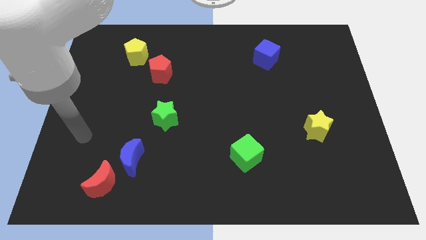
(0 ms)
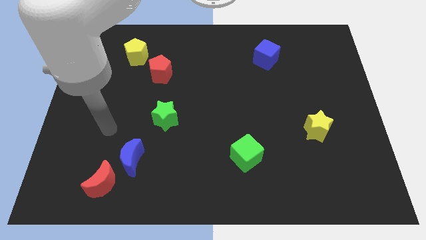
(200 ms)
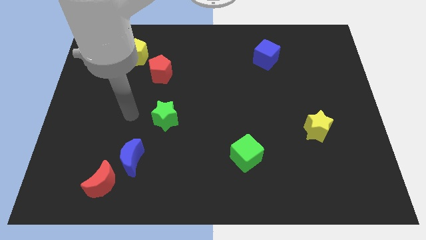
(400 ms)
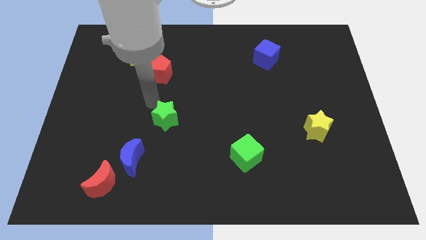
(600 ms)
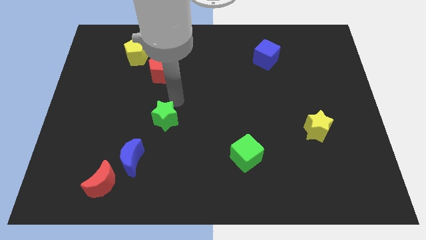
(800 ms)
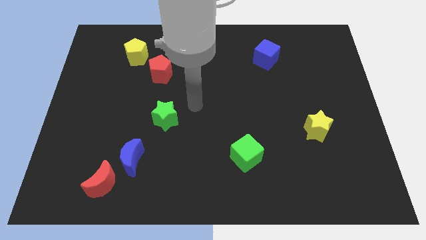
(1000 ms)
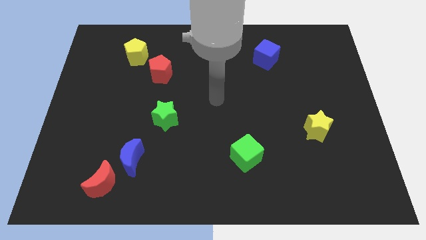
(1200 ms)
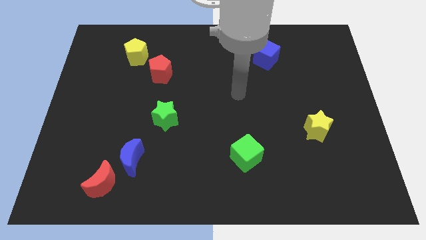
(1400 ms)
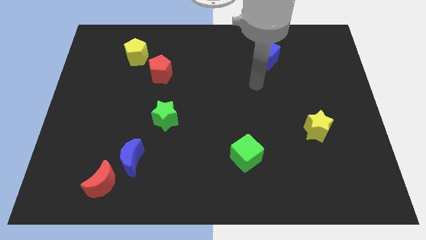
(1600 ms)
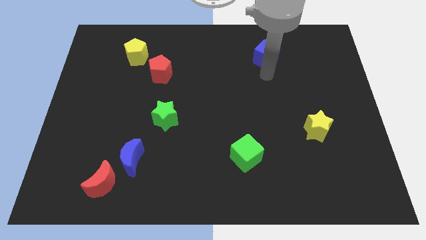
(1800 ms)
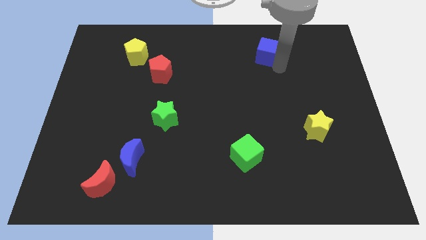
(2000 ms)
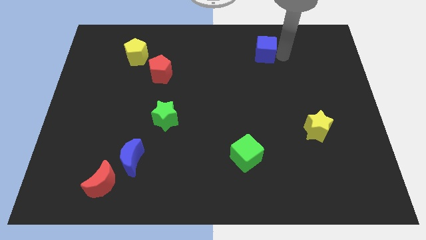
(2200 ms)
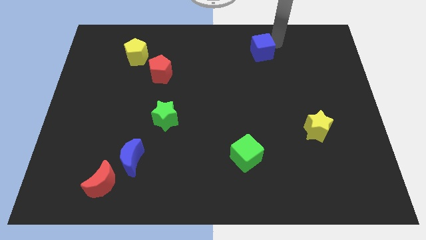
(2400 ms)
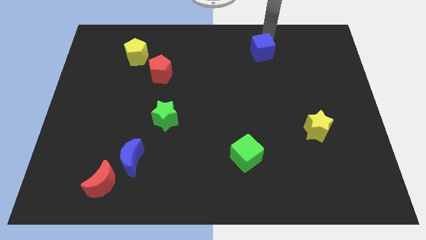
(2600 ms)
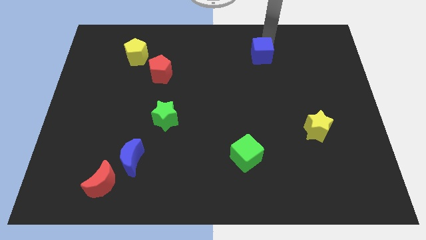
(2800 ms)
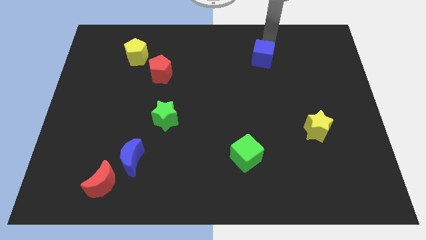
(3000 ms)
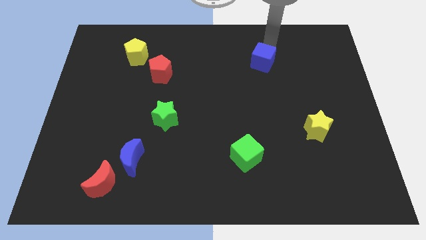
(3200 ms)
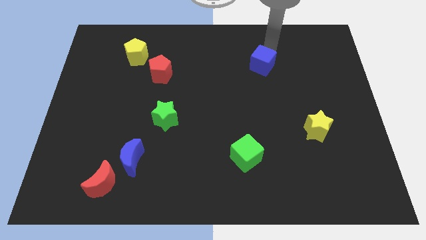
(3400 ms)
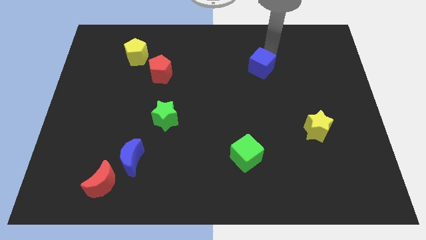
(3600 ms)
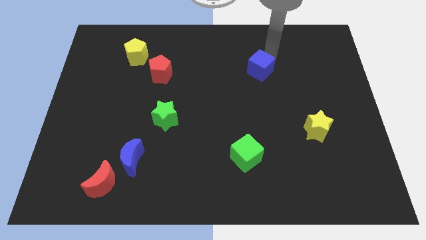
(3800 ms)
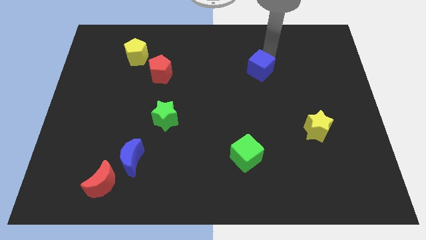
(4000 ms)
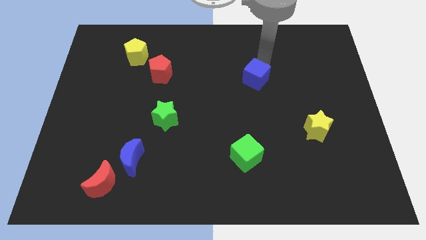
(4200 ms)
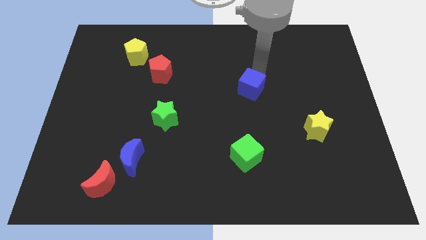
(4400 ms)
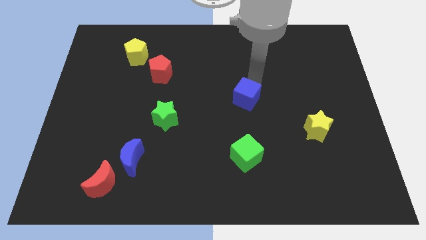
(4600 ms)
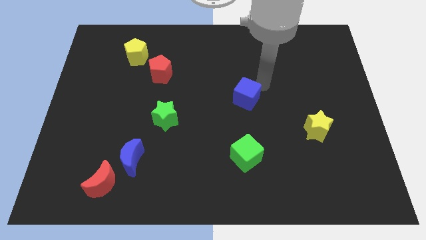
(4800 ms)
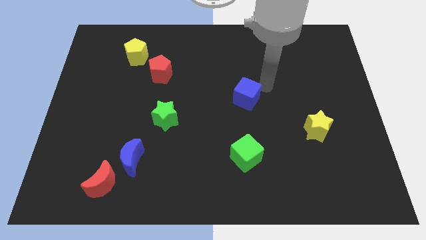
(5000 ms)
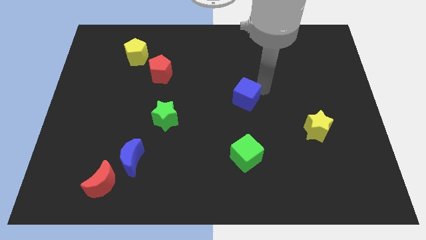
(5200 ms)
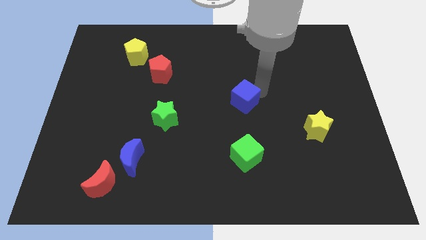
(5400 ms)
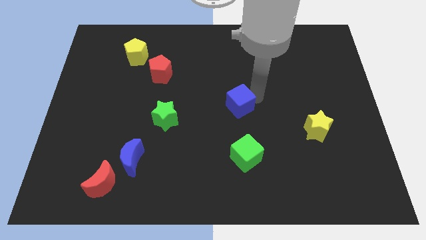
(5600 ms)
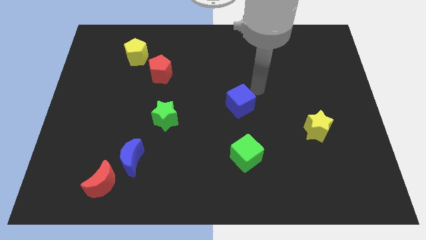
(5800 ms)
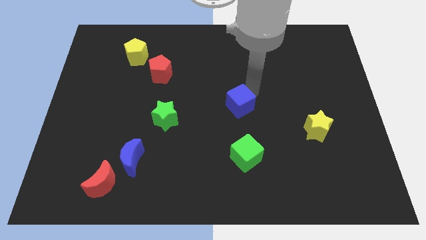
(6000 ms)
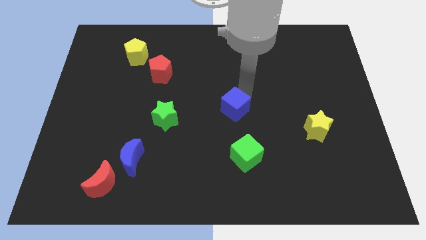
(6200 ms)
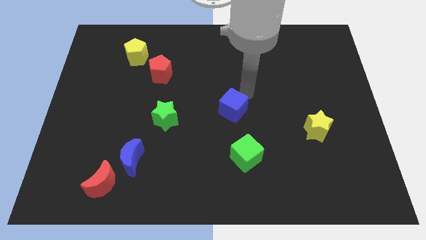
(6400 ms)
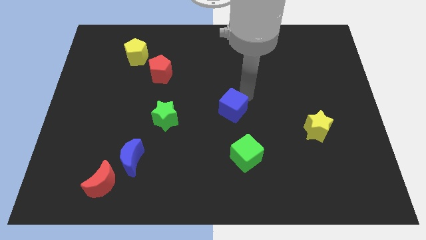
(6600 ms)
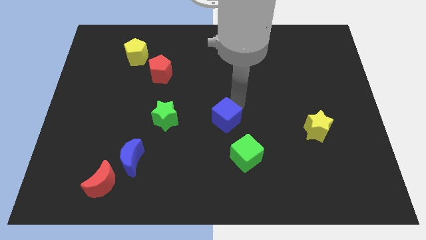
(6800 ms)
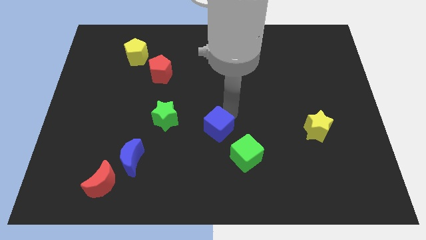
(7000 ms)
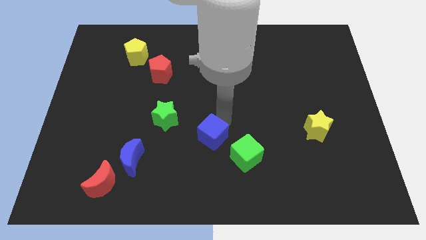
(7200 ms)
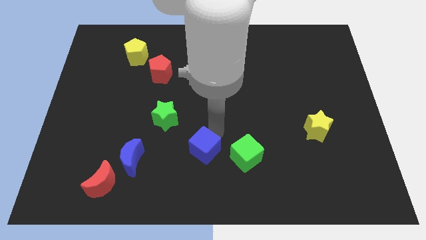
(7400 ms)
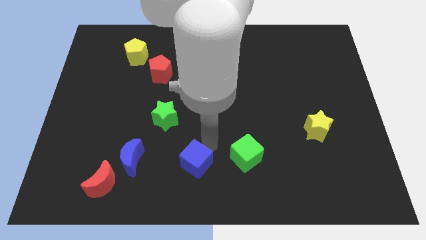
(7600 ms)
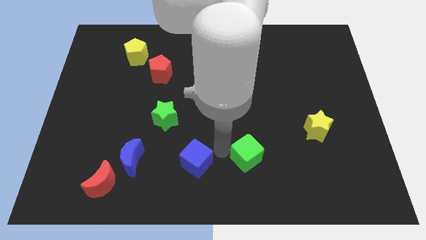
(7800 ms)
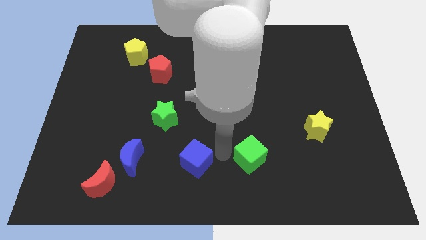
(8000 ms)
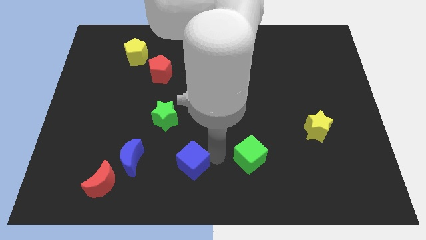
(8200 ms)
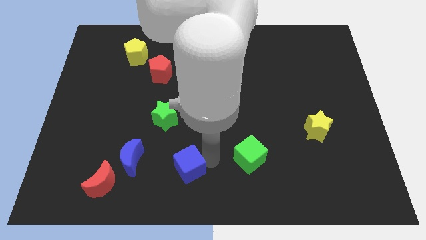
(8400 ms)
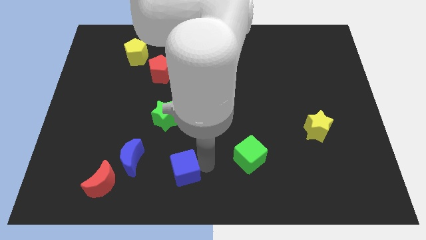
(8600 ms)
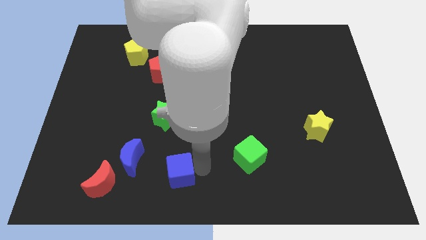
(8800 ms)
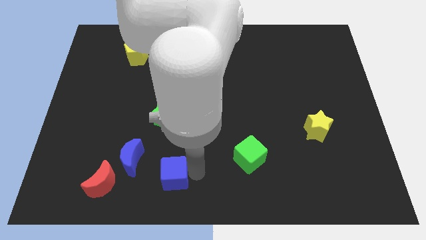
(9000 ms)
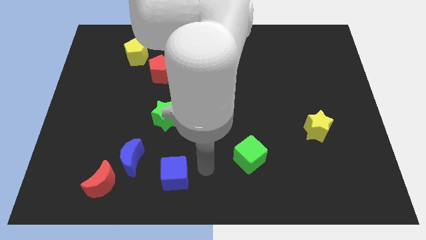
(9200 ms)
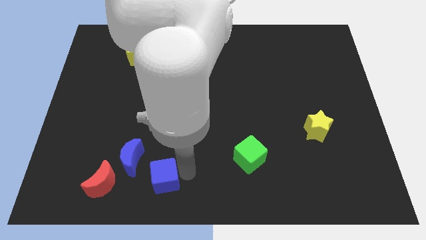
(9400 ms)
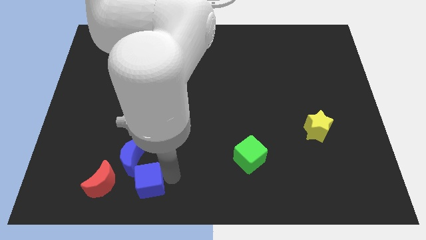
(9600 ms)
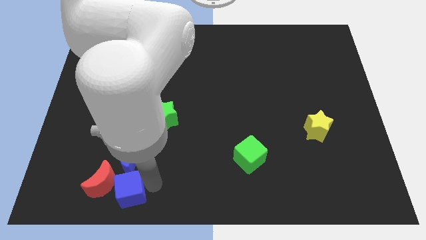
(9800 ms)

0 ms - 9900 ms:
slide the blue cube next to the red moon

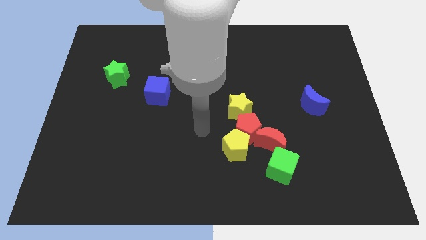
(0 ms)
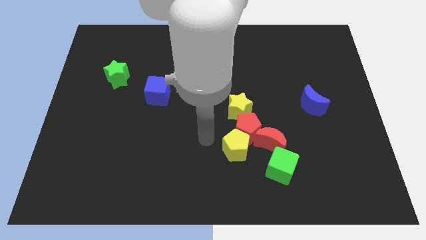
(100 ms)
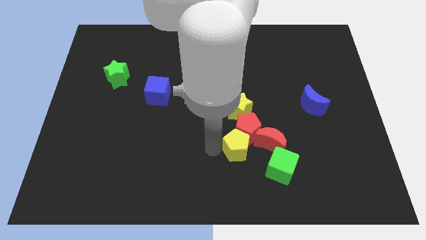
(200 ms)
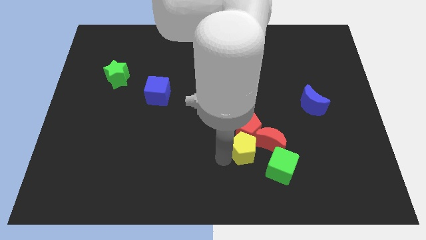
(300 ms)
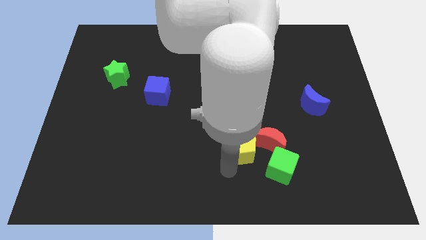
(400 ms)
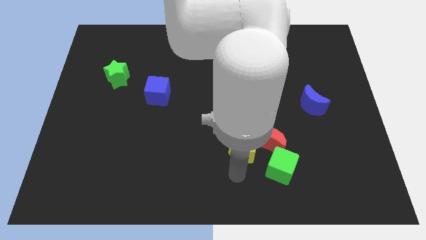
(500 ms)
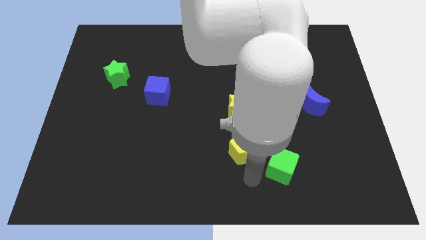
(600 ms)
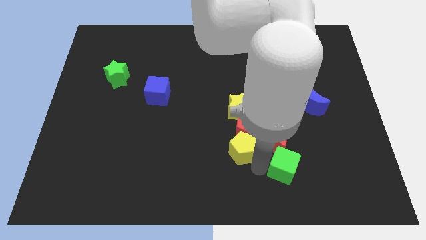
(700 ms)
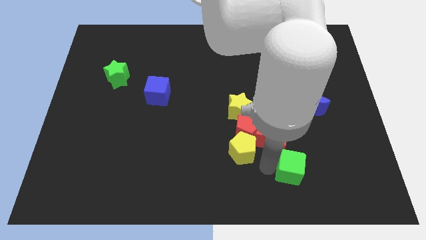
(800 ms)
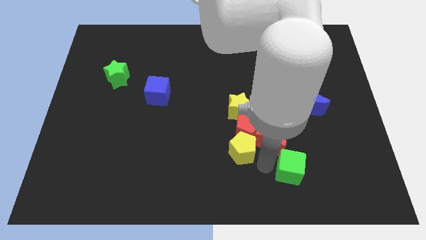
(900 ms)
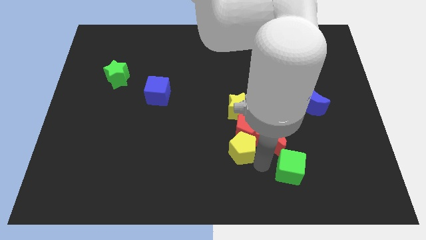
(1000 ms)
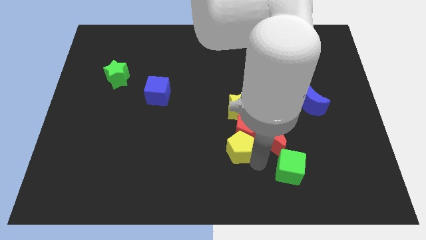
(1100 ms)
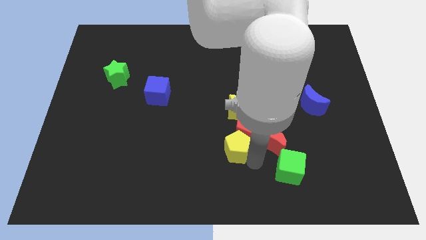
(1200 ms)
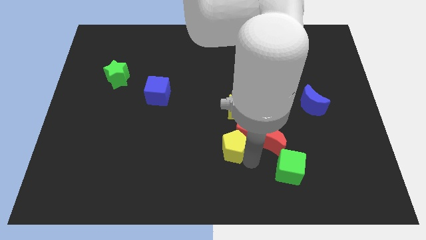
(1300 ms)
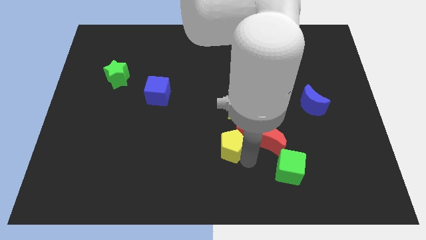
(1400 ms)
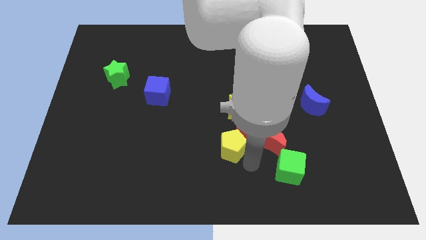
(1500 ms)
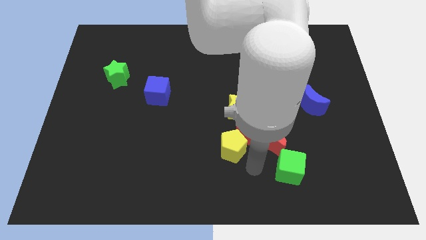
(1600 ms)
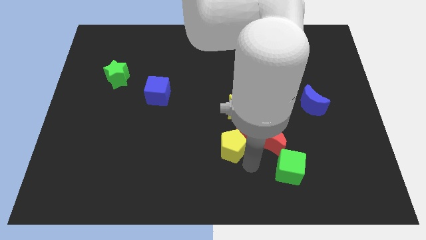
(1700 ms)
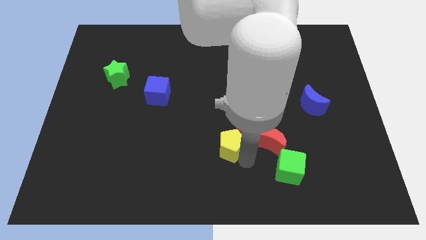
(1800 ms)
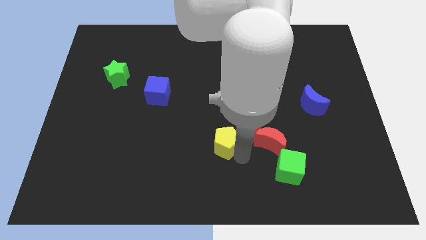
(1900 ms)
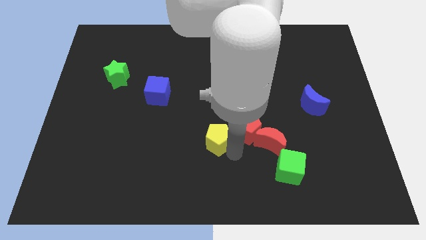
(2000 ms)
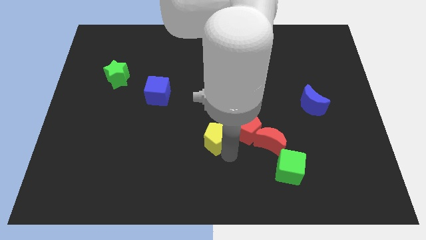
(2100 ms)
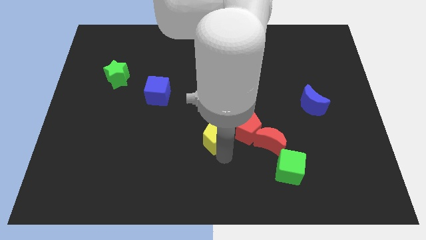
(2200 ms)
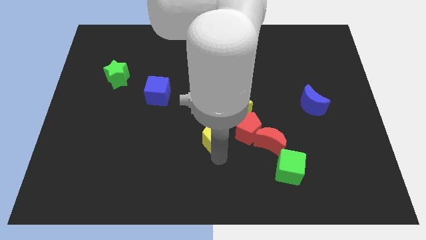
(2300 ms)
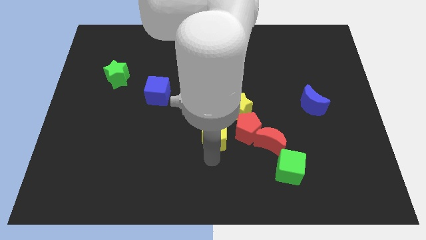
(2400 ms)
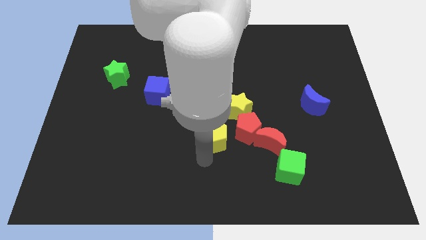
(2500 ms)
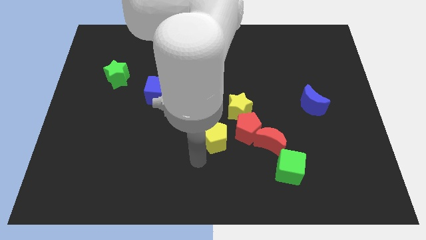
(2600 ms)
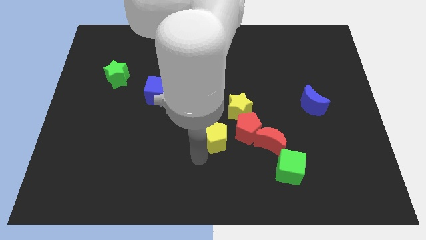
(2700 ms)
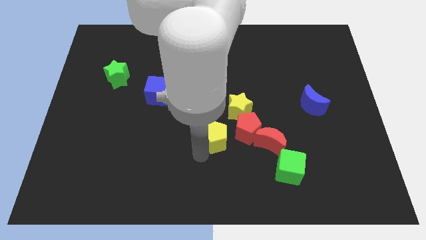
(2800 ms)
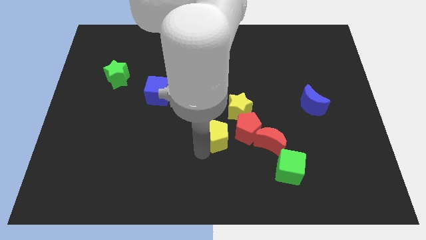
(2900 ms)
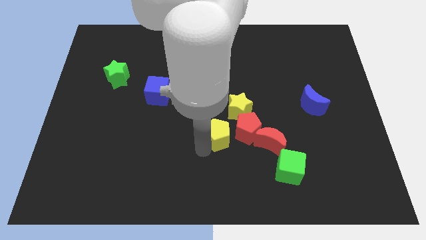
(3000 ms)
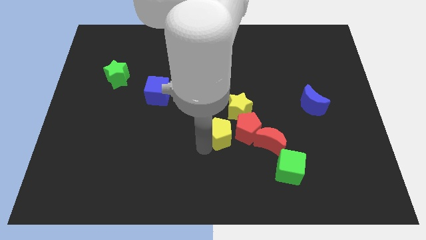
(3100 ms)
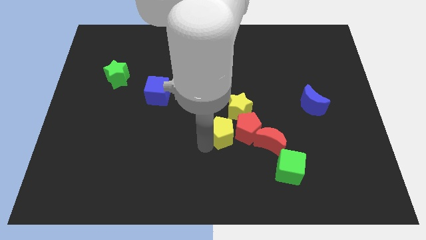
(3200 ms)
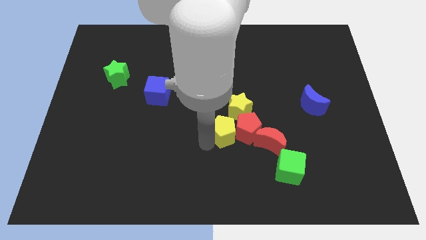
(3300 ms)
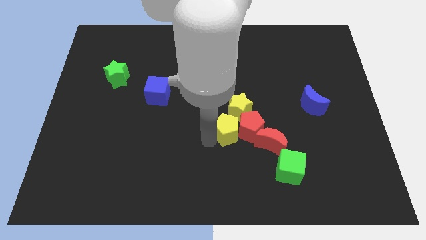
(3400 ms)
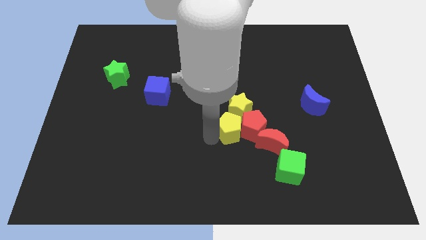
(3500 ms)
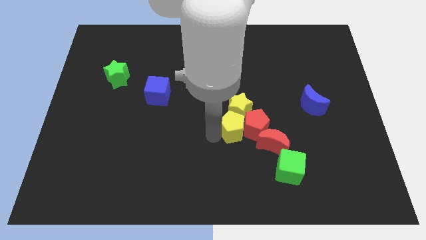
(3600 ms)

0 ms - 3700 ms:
slide the yellow pentagon close to the yellow star
